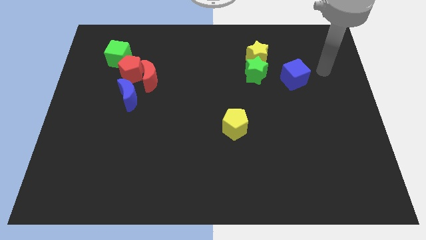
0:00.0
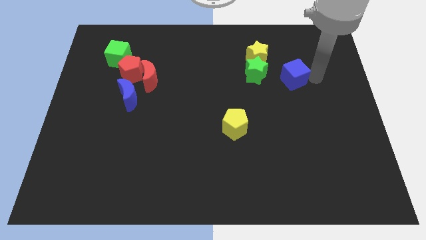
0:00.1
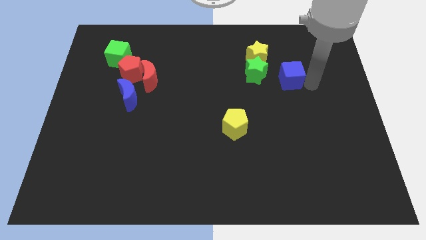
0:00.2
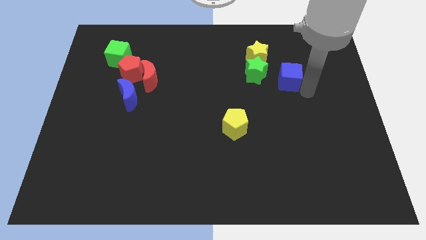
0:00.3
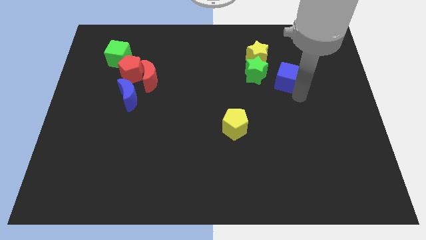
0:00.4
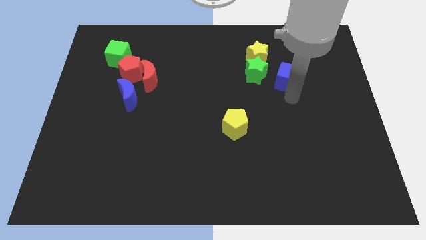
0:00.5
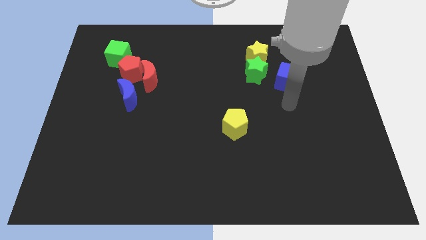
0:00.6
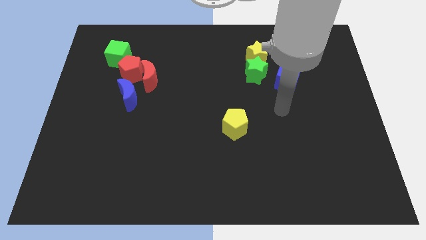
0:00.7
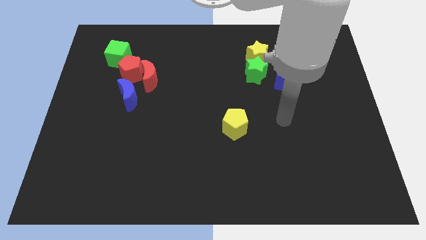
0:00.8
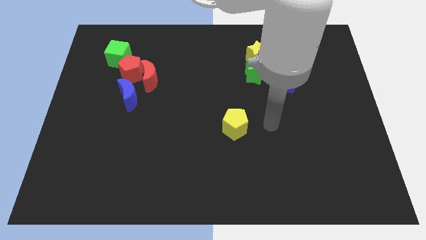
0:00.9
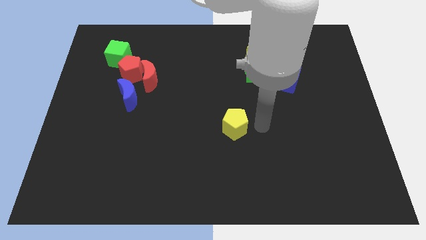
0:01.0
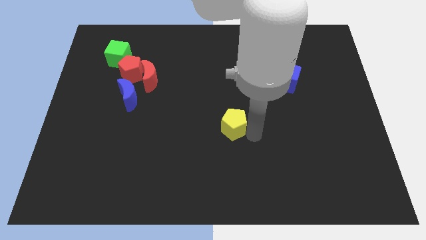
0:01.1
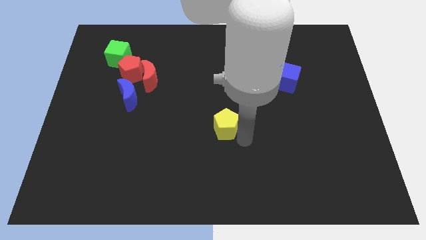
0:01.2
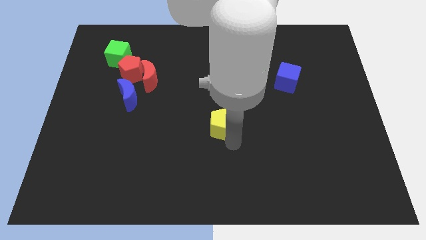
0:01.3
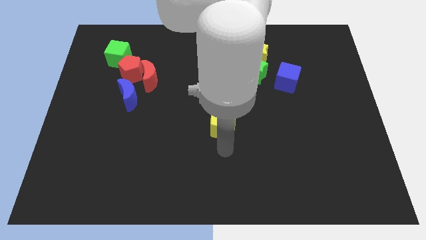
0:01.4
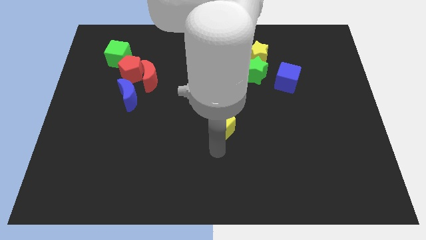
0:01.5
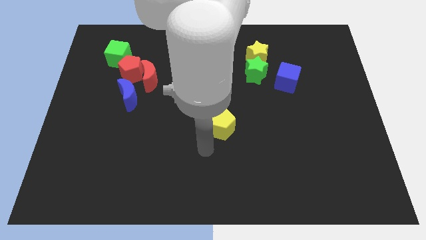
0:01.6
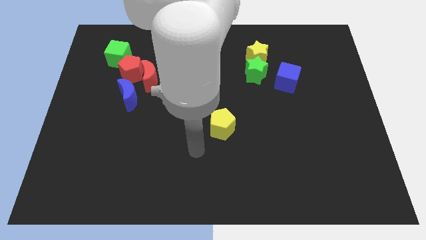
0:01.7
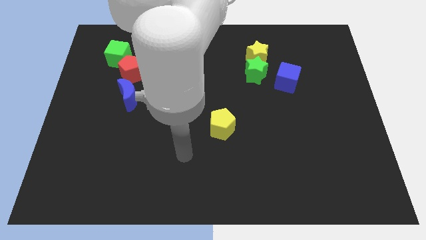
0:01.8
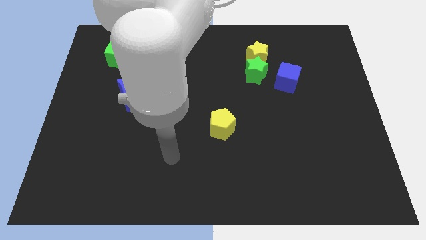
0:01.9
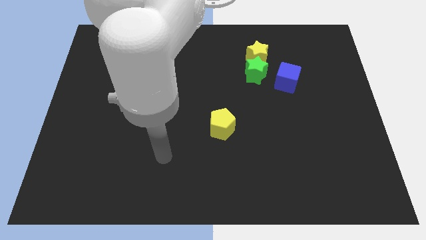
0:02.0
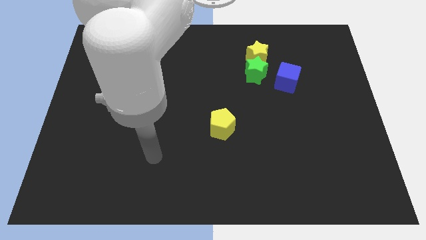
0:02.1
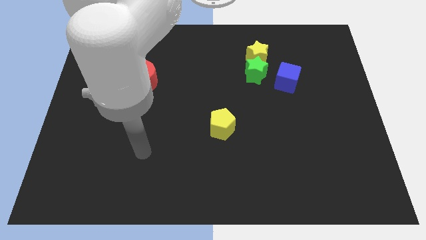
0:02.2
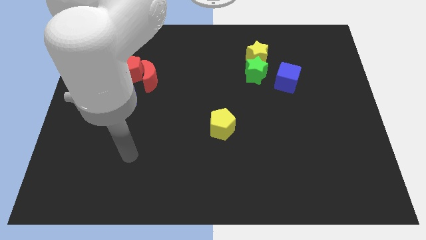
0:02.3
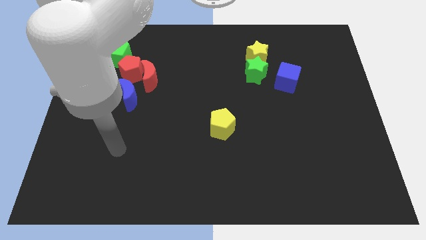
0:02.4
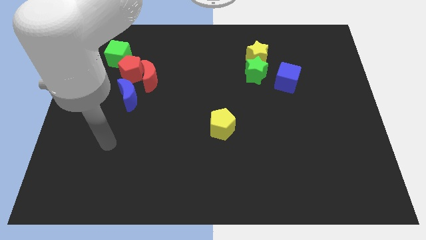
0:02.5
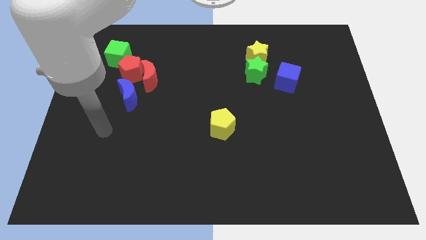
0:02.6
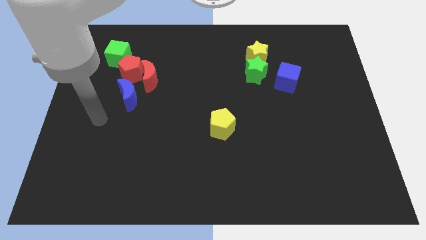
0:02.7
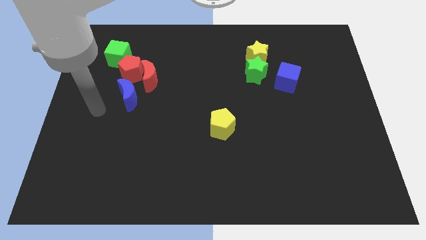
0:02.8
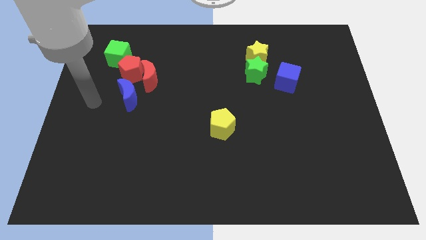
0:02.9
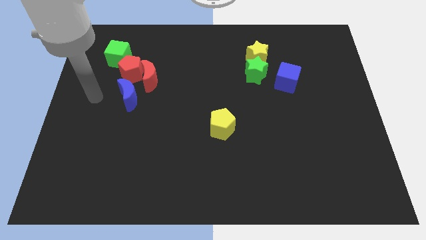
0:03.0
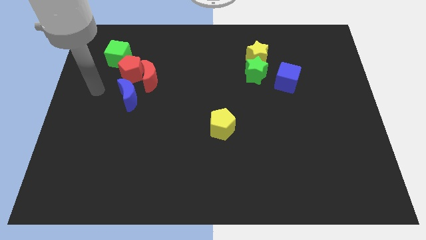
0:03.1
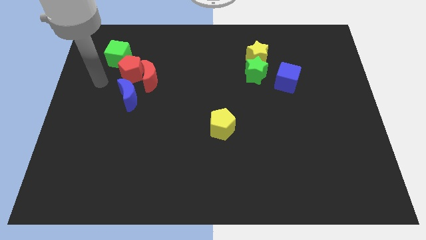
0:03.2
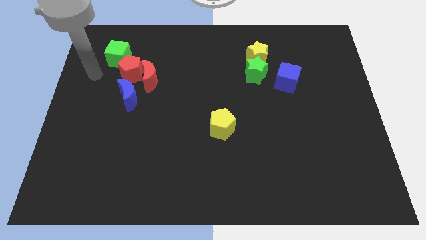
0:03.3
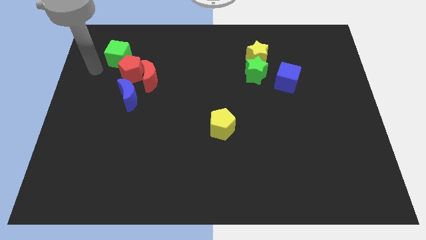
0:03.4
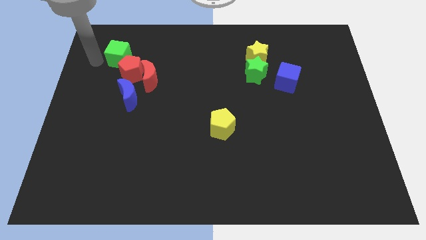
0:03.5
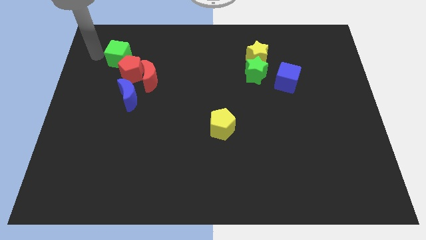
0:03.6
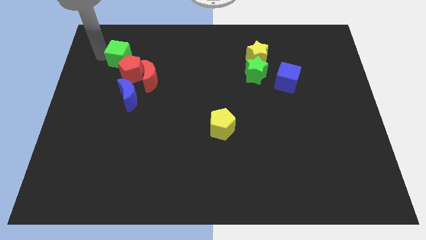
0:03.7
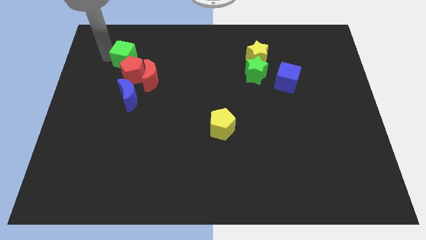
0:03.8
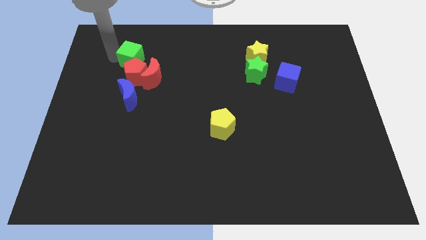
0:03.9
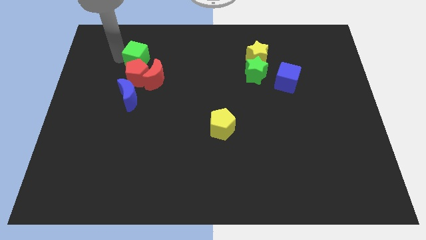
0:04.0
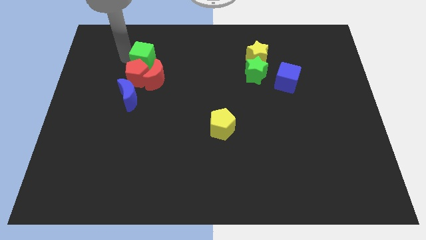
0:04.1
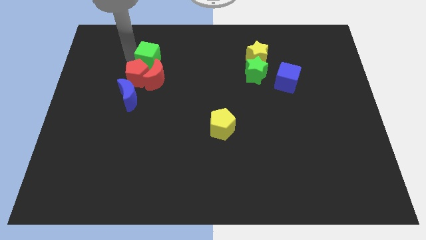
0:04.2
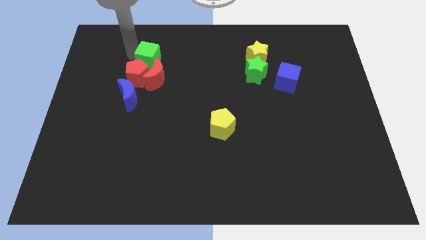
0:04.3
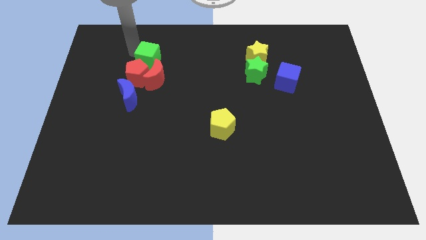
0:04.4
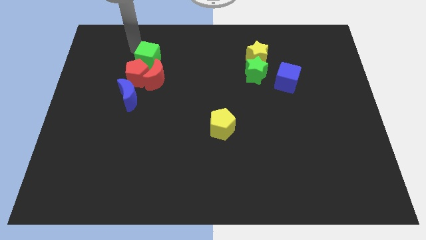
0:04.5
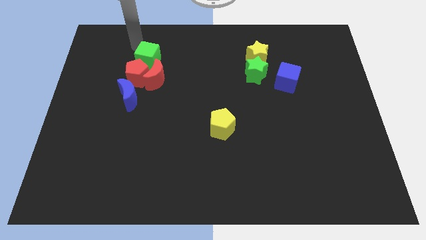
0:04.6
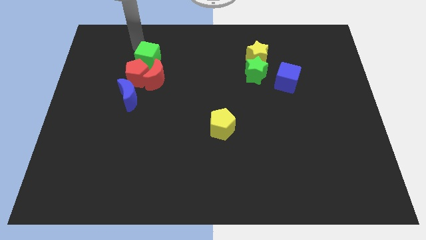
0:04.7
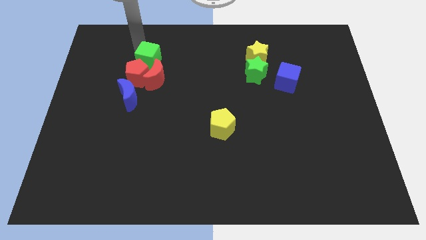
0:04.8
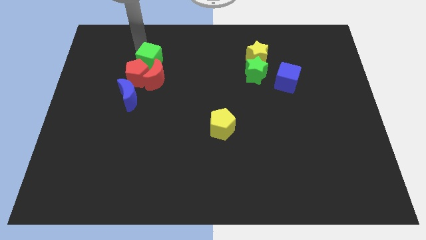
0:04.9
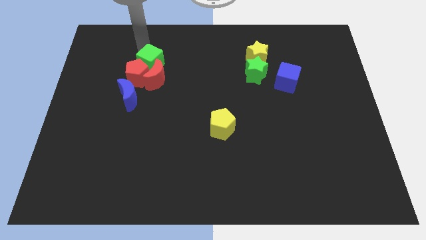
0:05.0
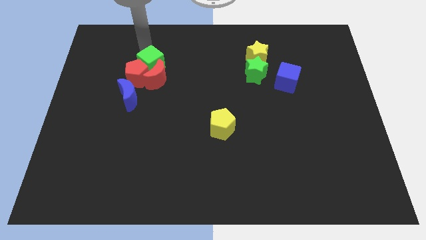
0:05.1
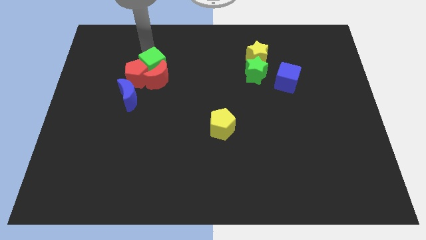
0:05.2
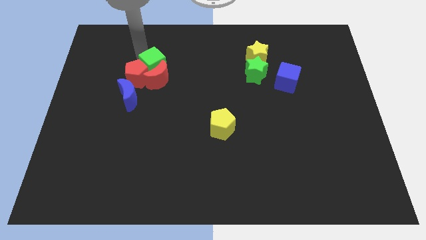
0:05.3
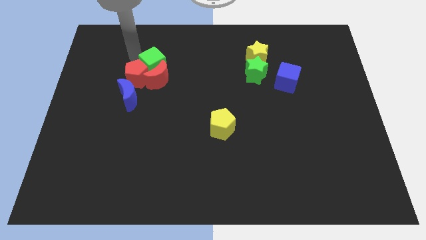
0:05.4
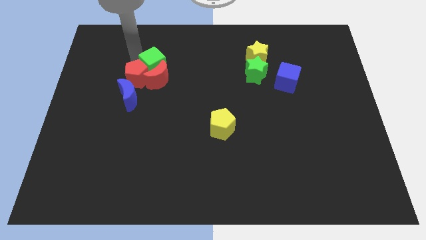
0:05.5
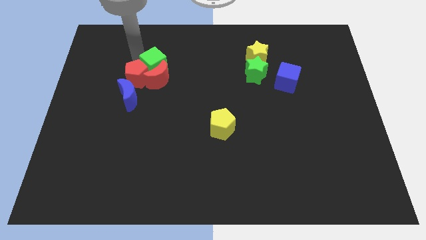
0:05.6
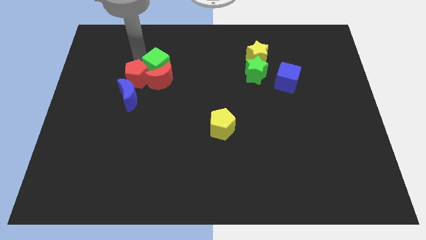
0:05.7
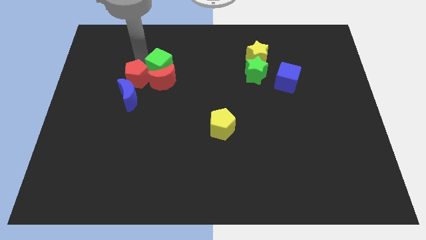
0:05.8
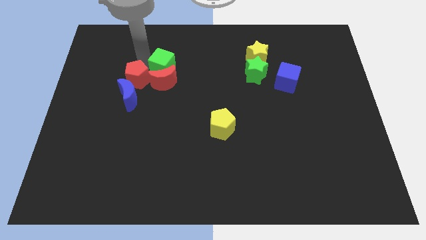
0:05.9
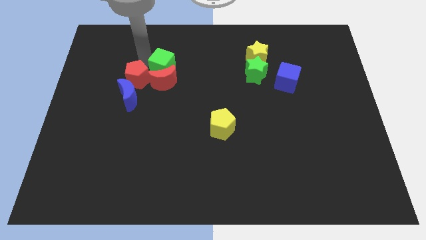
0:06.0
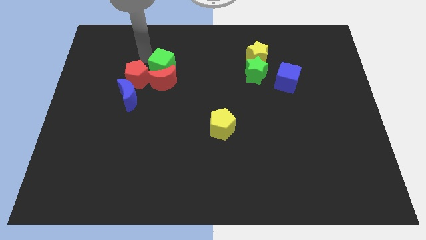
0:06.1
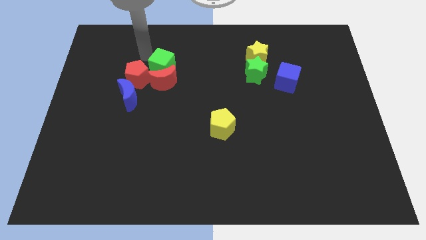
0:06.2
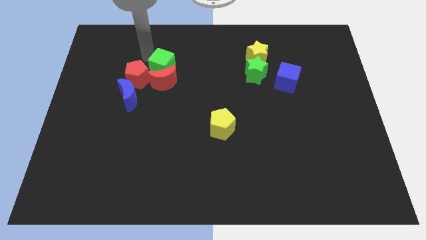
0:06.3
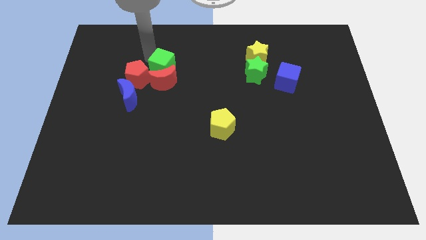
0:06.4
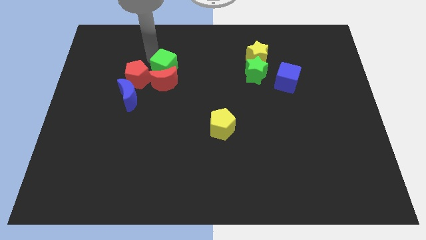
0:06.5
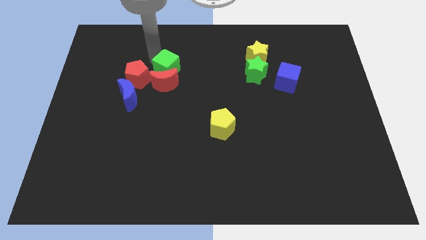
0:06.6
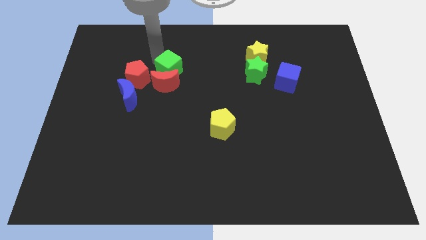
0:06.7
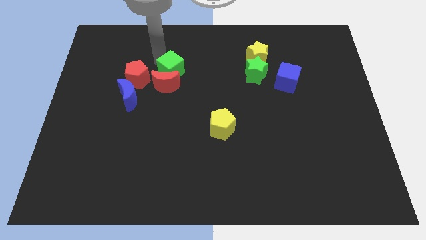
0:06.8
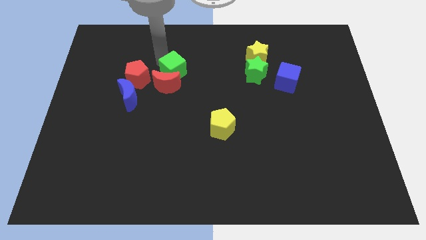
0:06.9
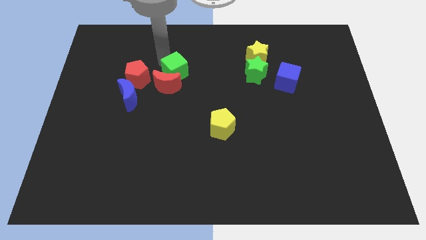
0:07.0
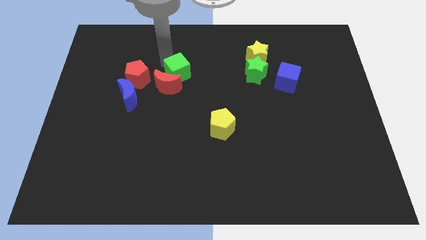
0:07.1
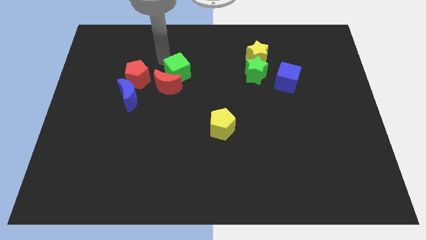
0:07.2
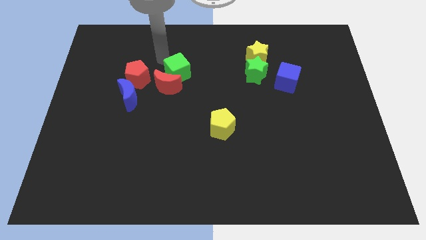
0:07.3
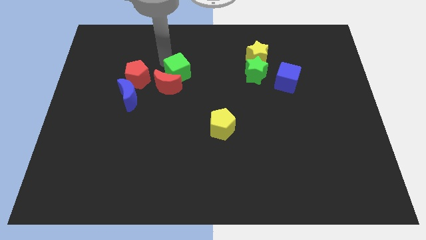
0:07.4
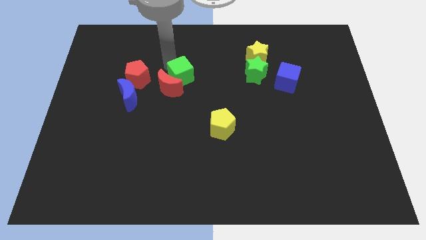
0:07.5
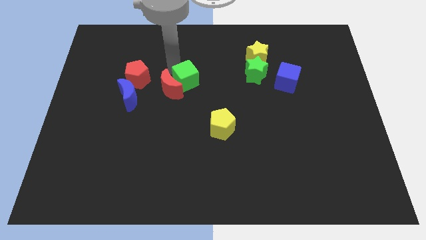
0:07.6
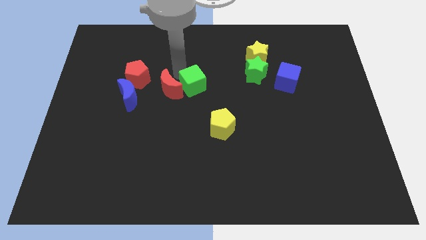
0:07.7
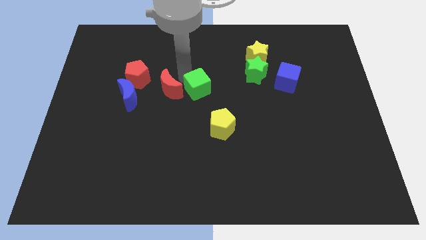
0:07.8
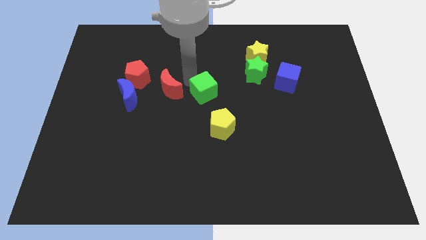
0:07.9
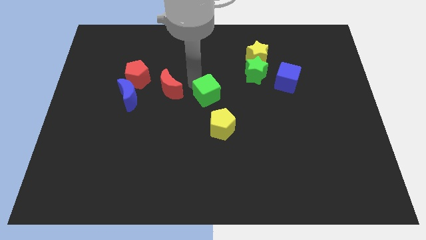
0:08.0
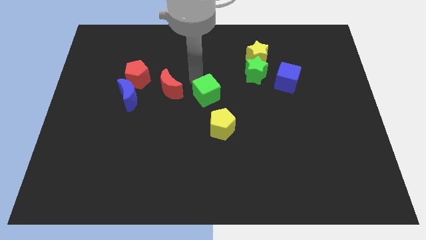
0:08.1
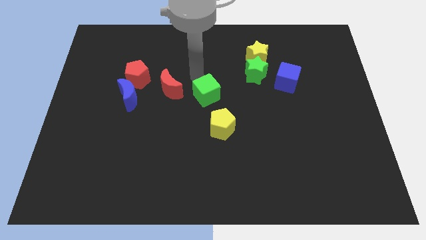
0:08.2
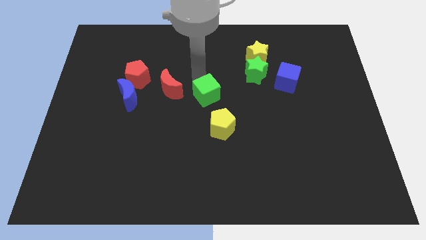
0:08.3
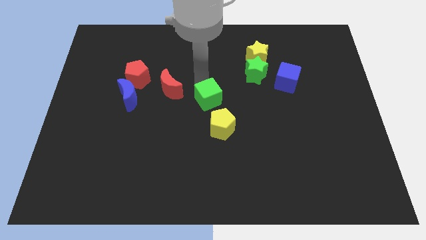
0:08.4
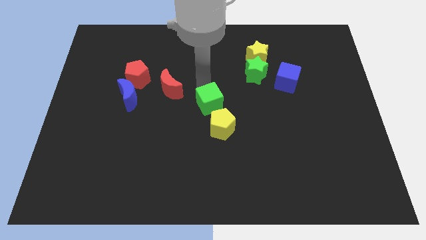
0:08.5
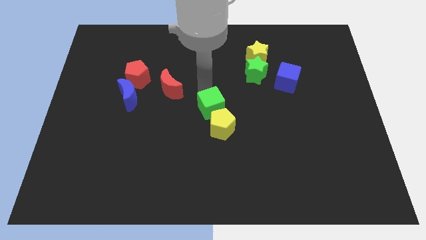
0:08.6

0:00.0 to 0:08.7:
put the green cube close to the yellow pentagon
